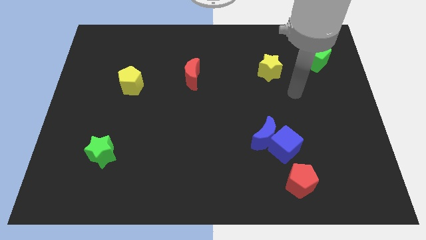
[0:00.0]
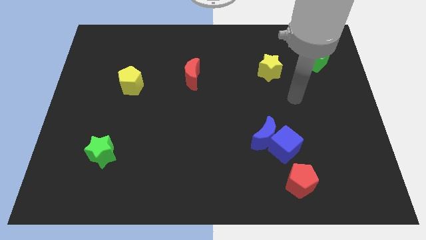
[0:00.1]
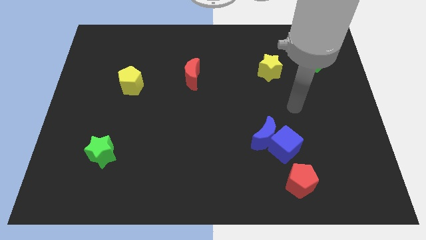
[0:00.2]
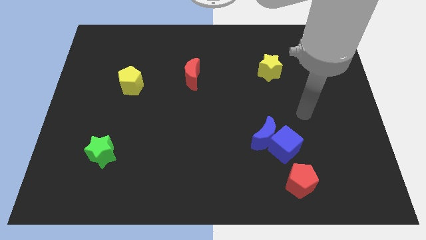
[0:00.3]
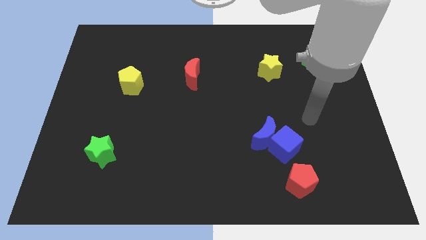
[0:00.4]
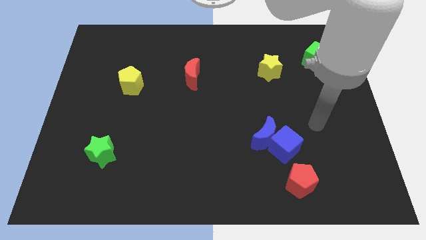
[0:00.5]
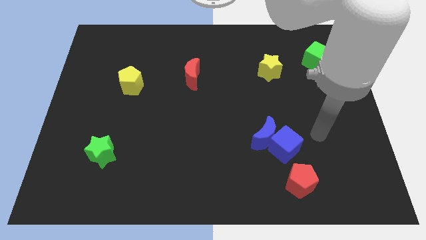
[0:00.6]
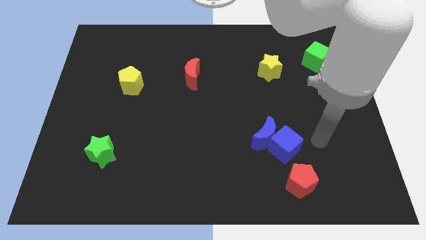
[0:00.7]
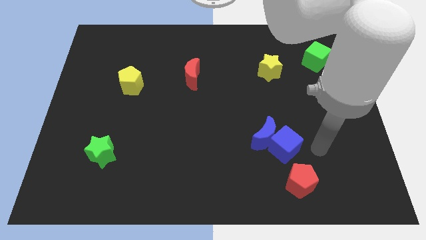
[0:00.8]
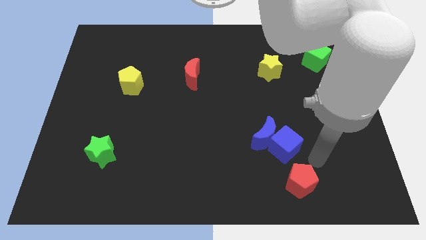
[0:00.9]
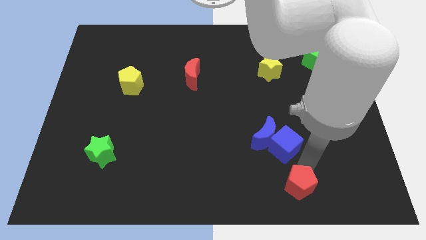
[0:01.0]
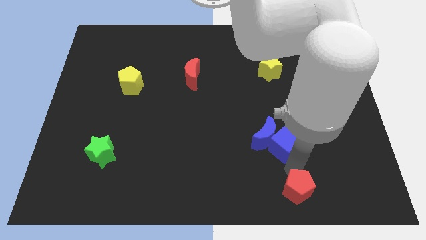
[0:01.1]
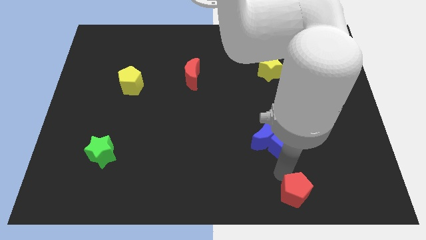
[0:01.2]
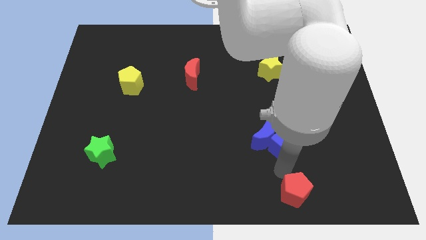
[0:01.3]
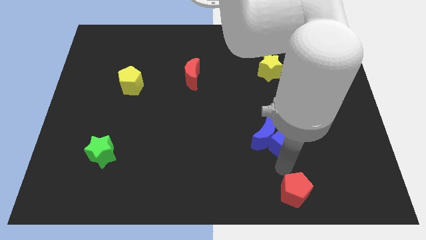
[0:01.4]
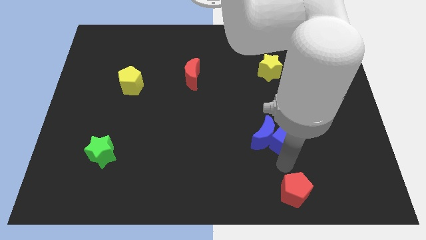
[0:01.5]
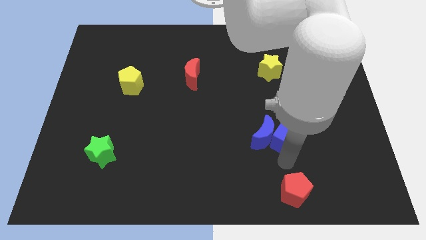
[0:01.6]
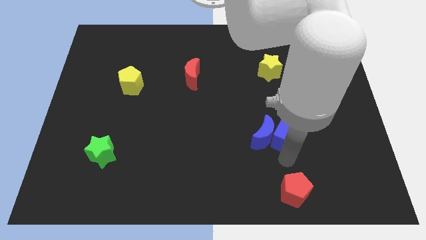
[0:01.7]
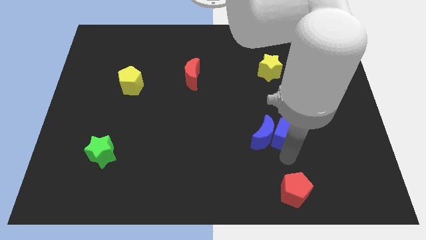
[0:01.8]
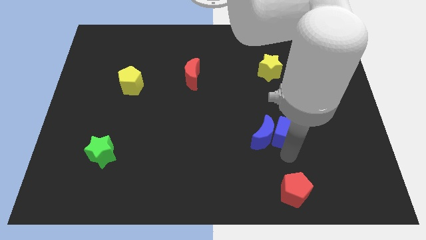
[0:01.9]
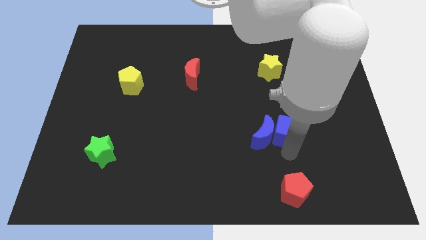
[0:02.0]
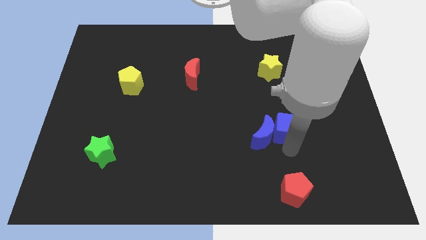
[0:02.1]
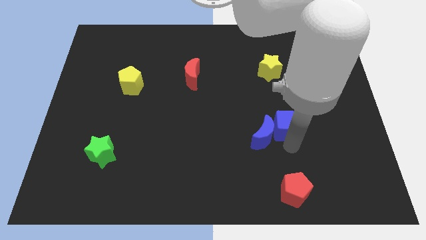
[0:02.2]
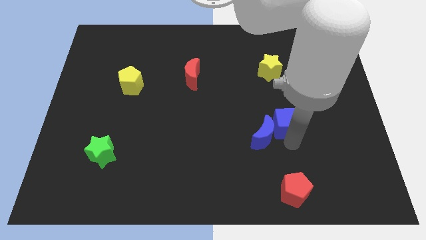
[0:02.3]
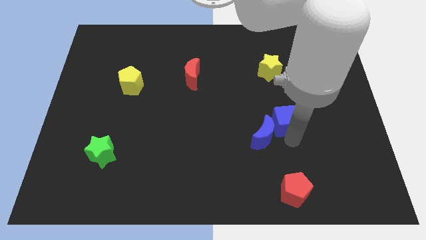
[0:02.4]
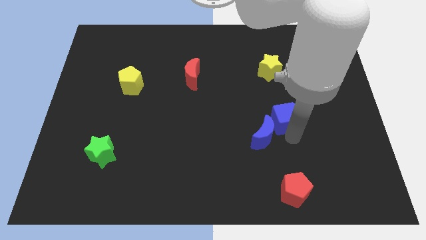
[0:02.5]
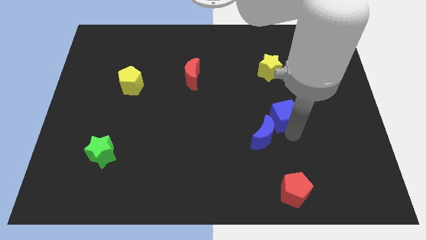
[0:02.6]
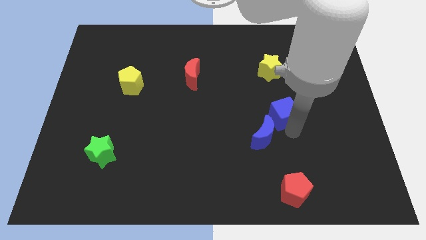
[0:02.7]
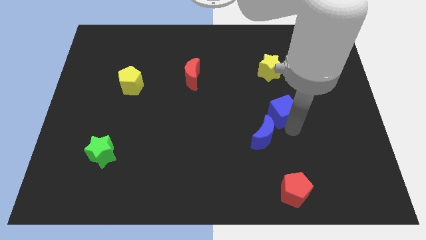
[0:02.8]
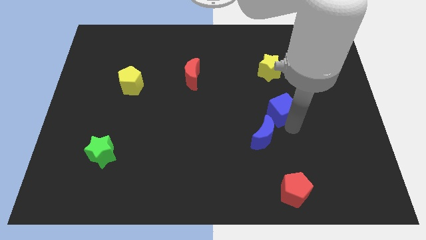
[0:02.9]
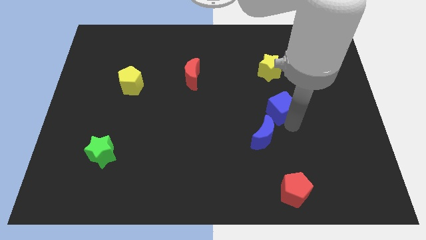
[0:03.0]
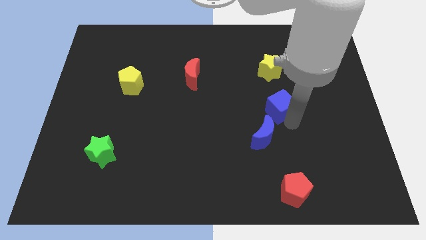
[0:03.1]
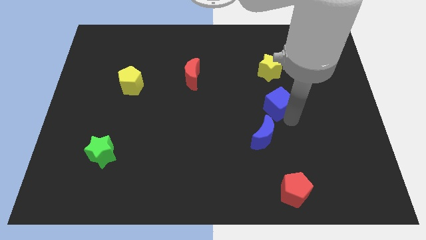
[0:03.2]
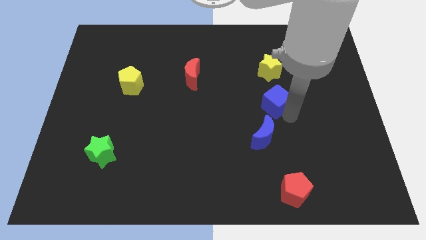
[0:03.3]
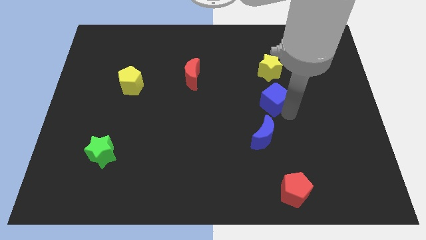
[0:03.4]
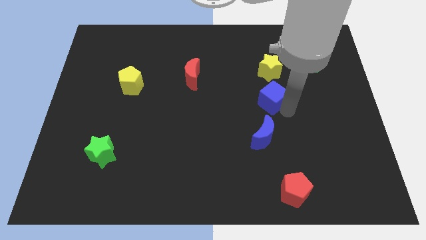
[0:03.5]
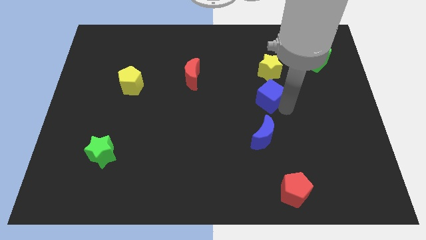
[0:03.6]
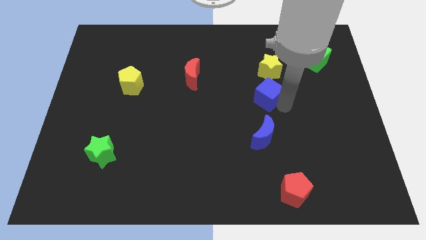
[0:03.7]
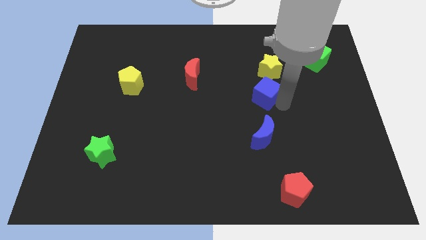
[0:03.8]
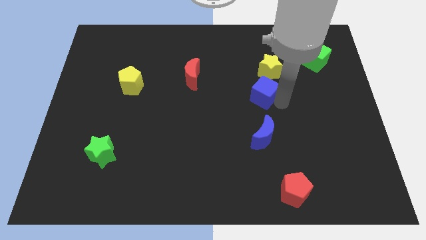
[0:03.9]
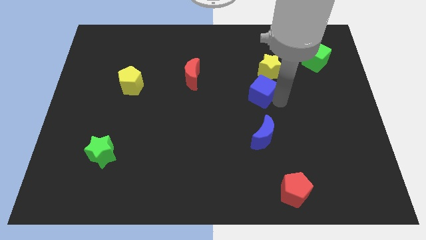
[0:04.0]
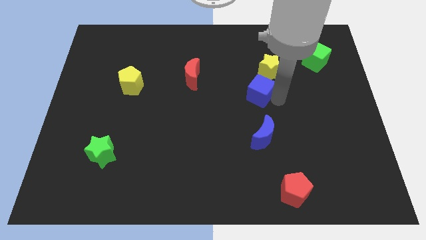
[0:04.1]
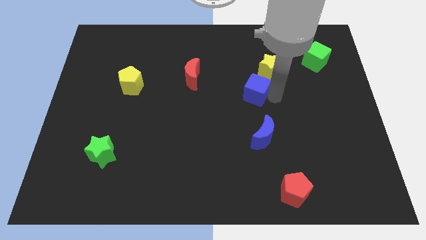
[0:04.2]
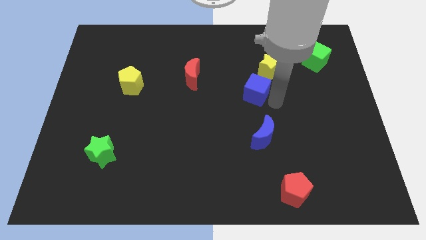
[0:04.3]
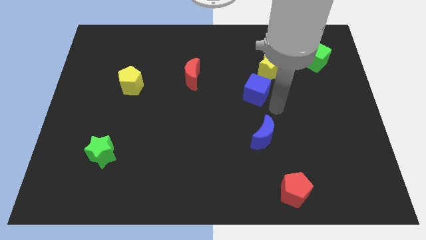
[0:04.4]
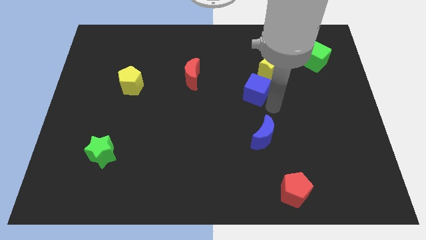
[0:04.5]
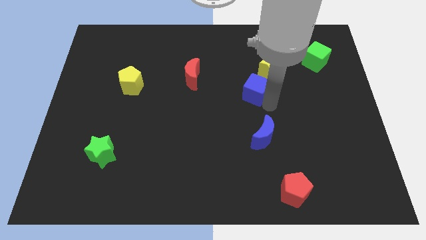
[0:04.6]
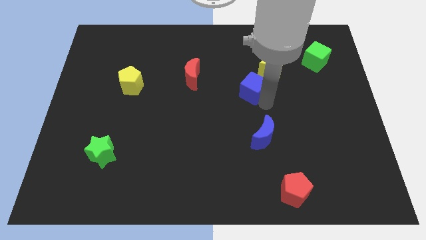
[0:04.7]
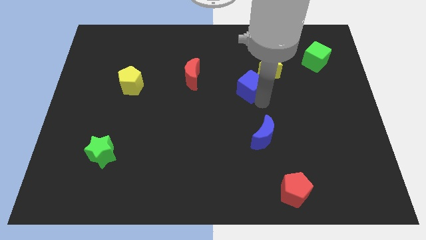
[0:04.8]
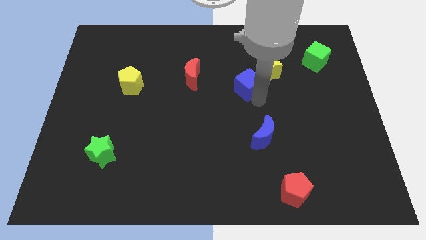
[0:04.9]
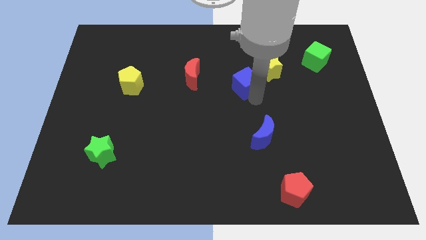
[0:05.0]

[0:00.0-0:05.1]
put the blue cube just left of the yellow star

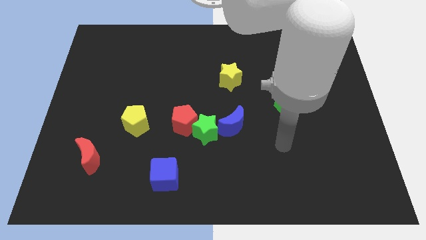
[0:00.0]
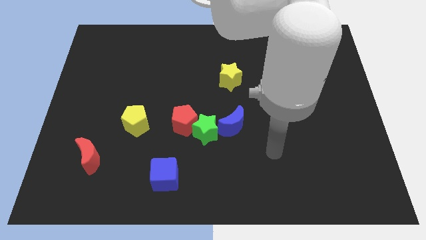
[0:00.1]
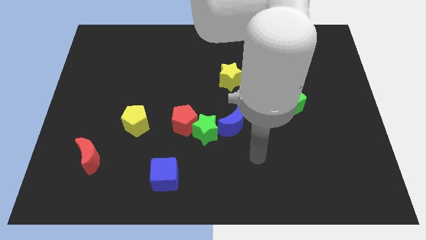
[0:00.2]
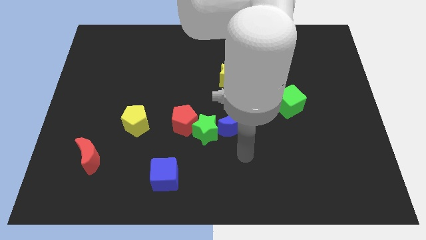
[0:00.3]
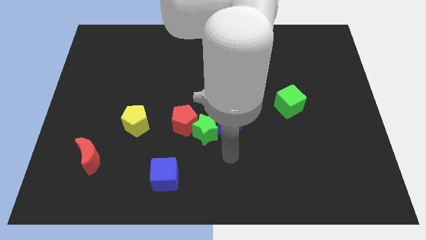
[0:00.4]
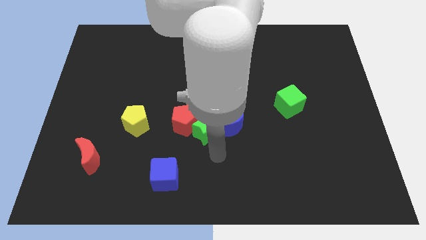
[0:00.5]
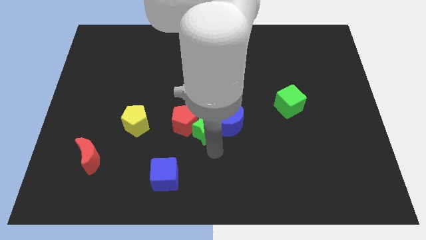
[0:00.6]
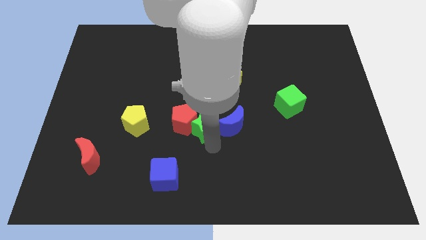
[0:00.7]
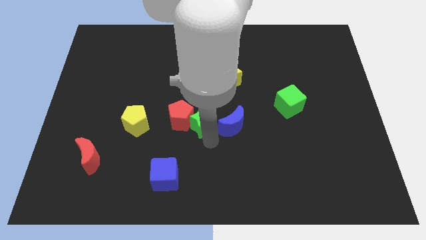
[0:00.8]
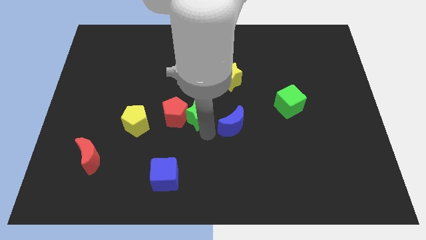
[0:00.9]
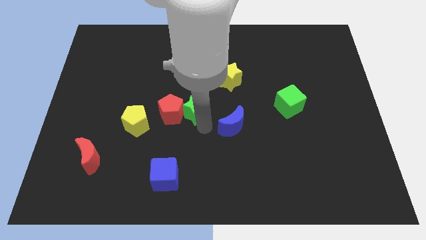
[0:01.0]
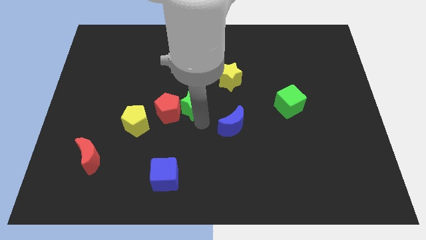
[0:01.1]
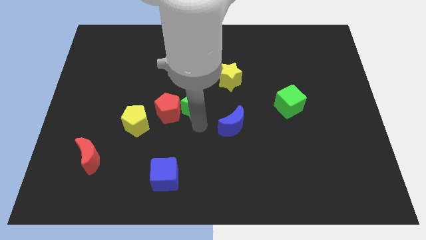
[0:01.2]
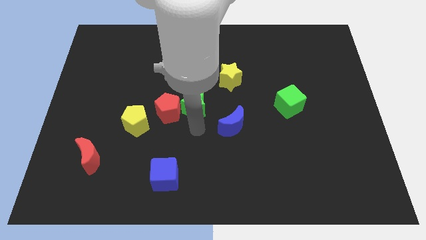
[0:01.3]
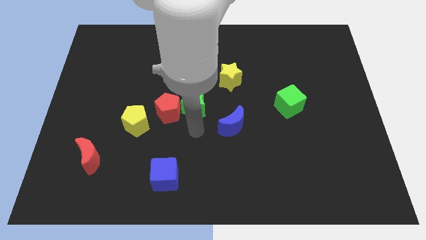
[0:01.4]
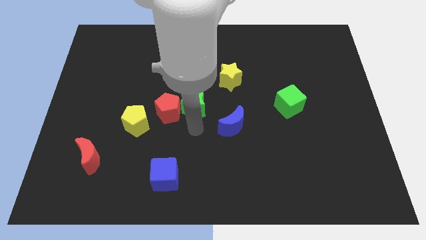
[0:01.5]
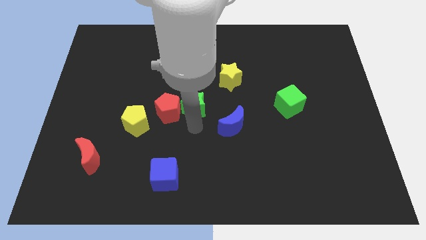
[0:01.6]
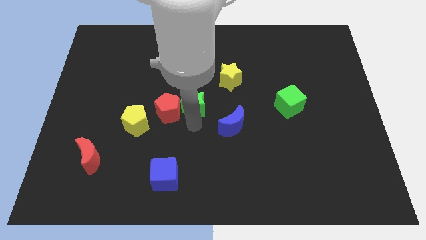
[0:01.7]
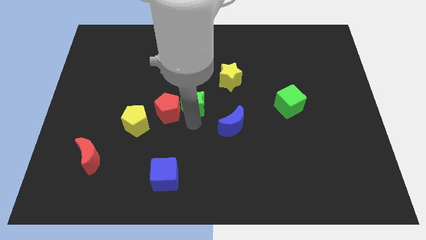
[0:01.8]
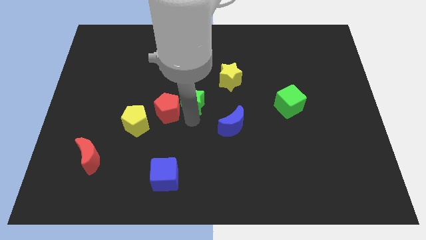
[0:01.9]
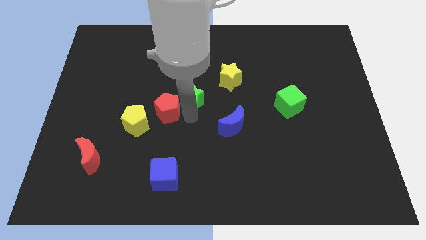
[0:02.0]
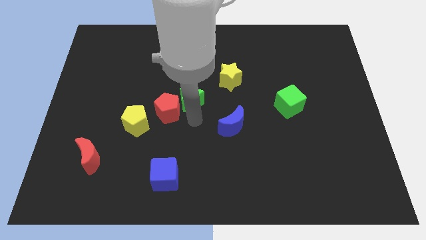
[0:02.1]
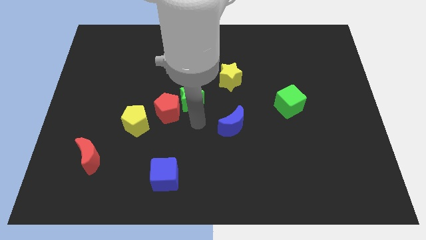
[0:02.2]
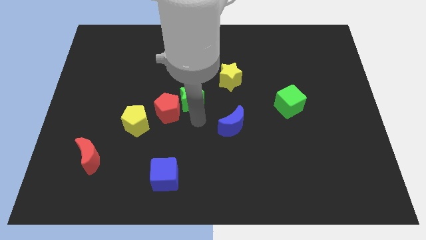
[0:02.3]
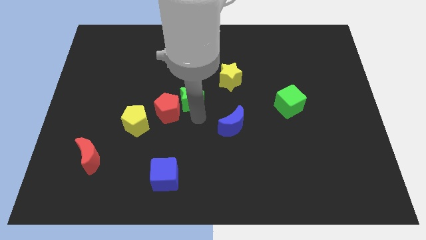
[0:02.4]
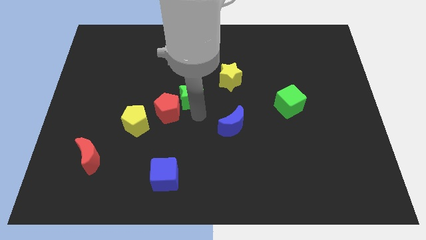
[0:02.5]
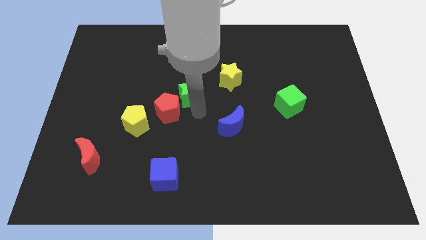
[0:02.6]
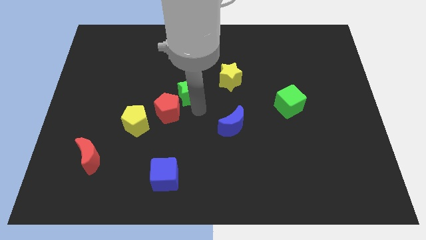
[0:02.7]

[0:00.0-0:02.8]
put the green star left of the yellow star
